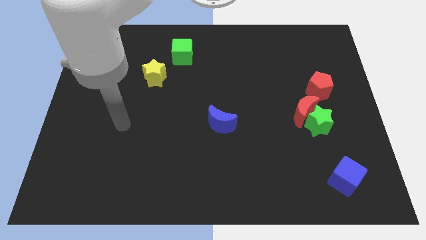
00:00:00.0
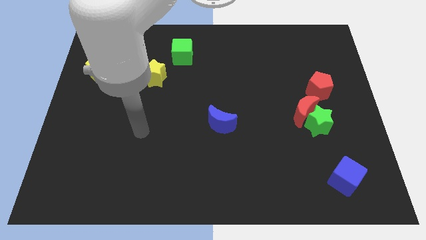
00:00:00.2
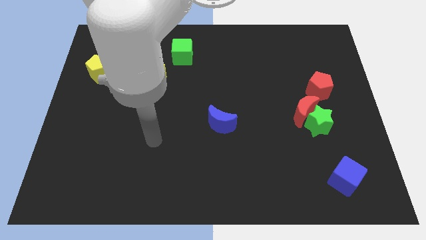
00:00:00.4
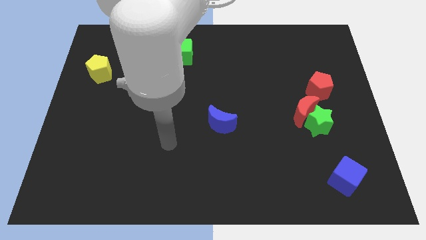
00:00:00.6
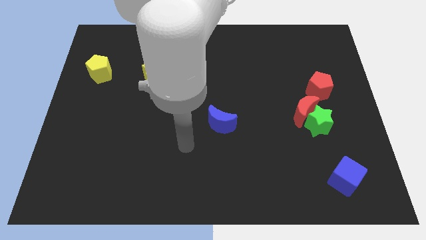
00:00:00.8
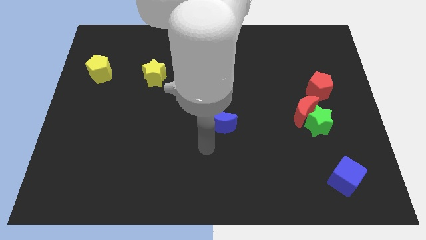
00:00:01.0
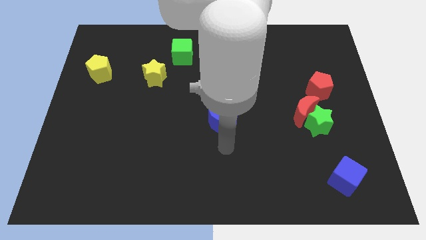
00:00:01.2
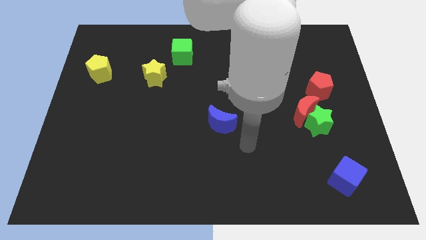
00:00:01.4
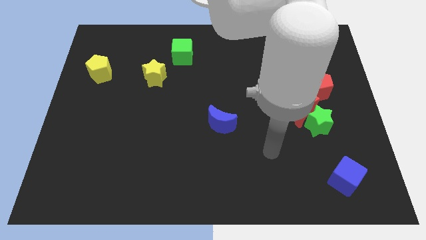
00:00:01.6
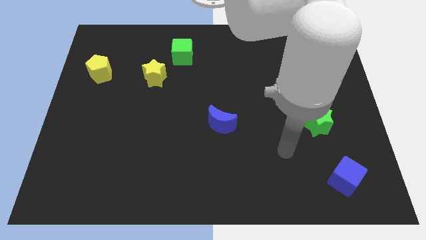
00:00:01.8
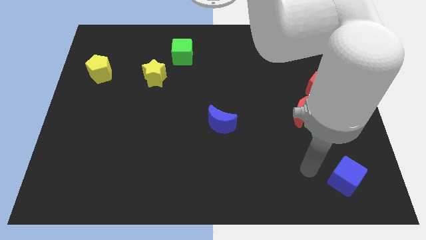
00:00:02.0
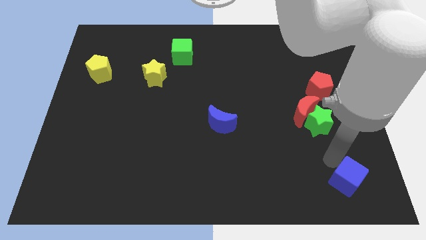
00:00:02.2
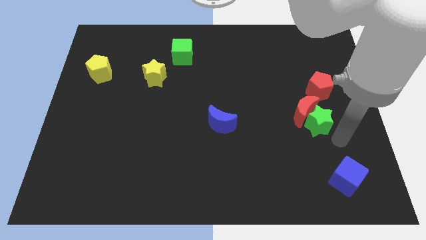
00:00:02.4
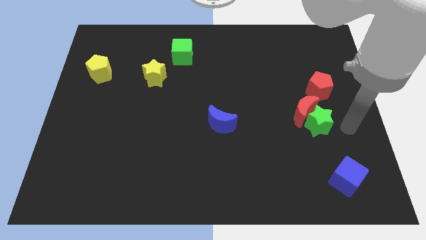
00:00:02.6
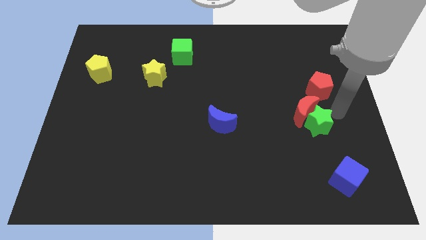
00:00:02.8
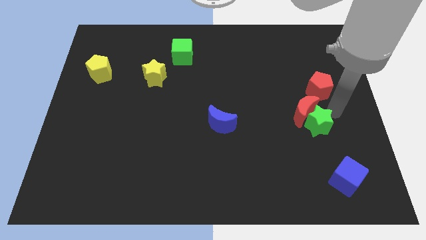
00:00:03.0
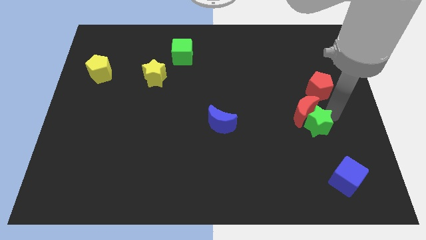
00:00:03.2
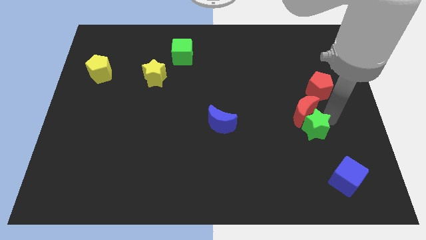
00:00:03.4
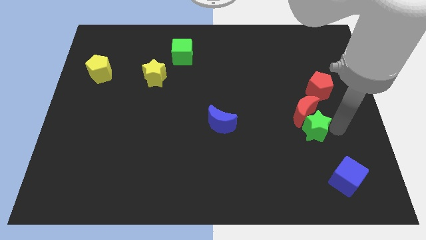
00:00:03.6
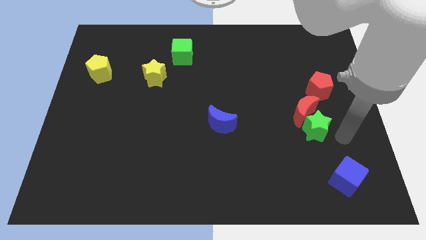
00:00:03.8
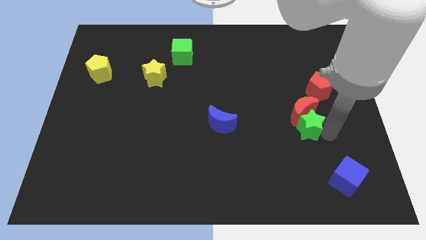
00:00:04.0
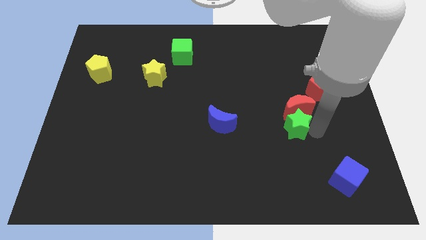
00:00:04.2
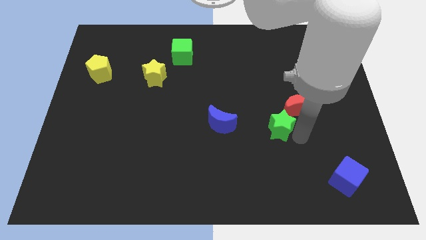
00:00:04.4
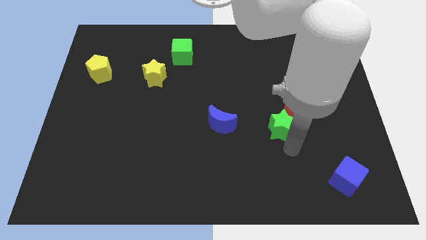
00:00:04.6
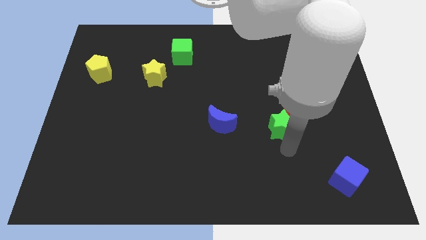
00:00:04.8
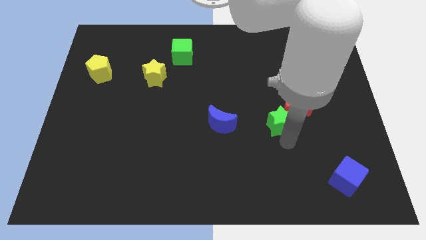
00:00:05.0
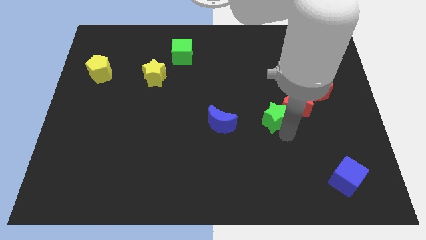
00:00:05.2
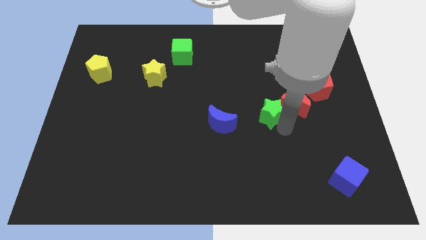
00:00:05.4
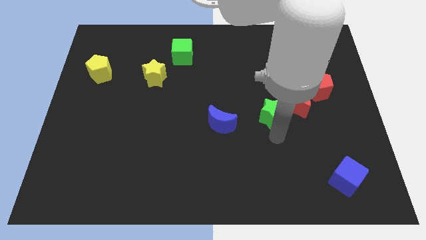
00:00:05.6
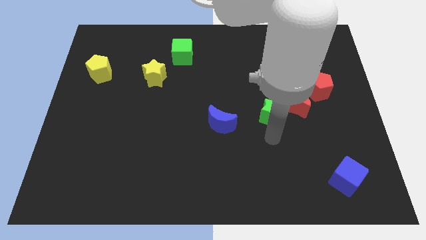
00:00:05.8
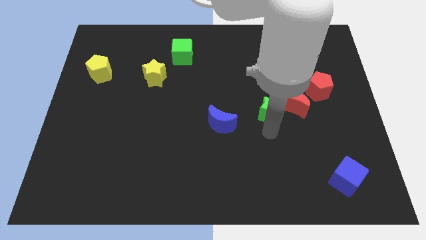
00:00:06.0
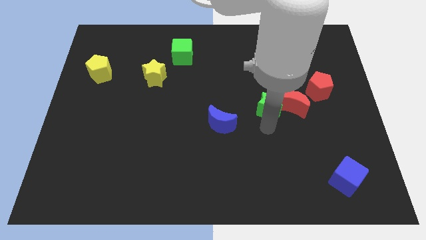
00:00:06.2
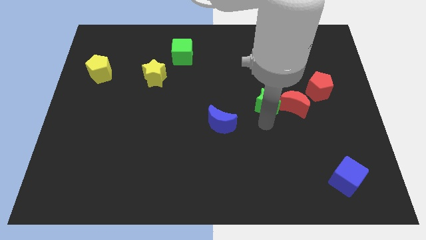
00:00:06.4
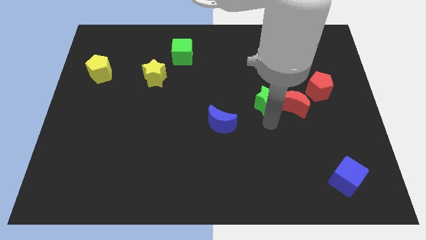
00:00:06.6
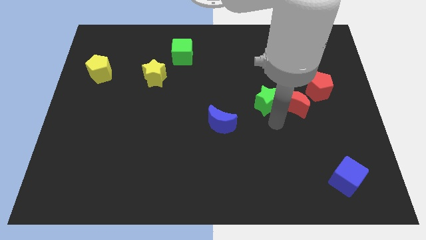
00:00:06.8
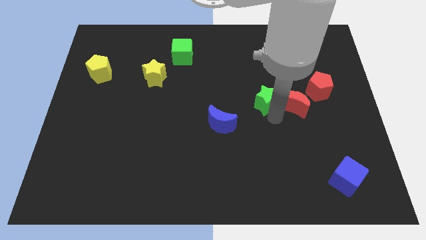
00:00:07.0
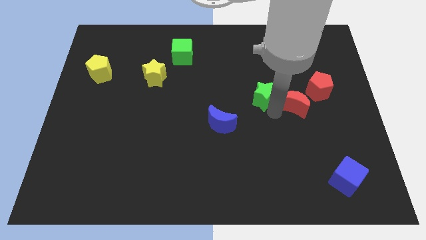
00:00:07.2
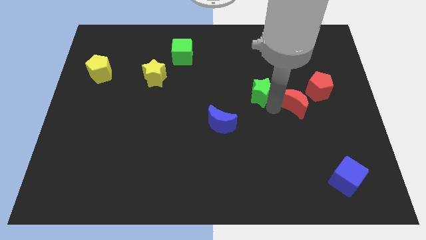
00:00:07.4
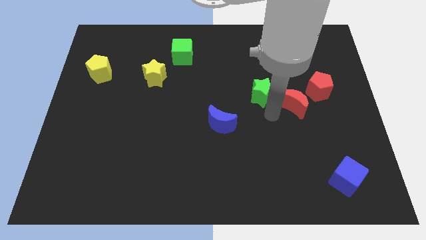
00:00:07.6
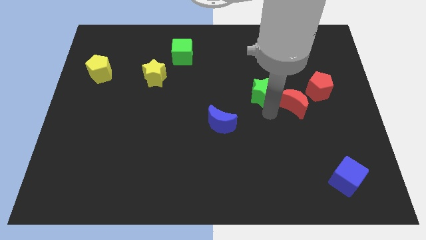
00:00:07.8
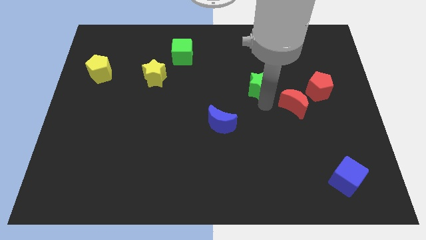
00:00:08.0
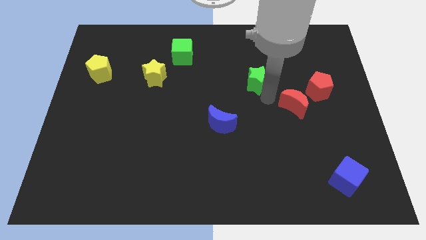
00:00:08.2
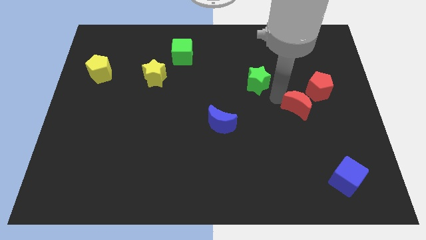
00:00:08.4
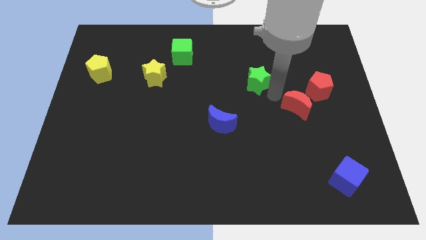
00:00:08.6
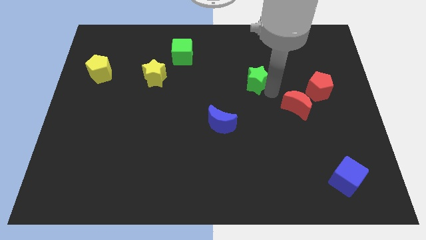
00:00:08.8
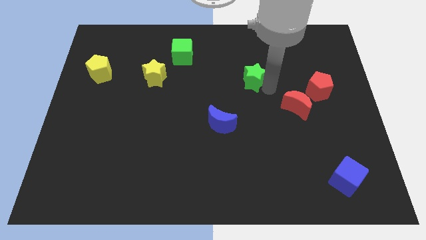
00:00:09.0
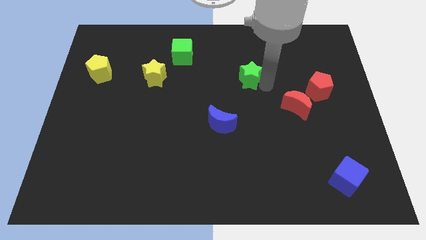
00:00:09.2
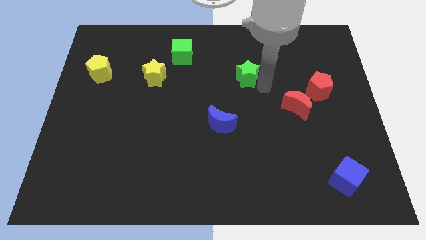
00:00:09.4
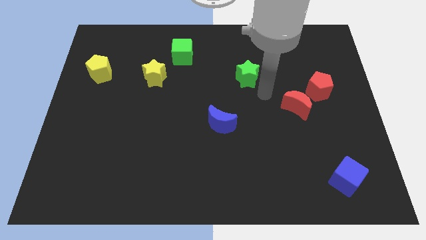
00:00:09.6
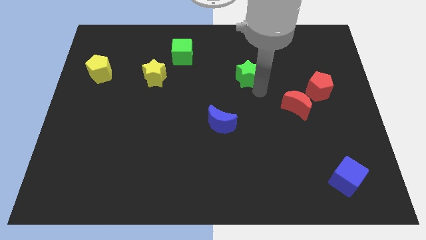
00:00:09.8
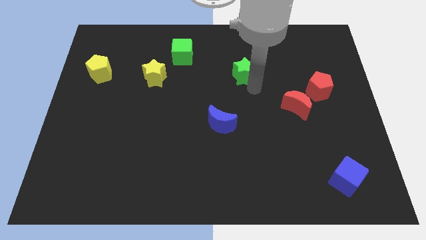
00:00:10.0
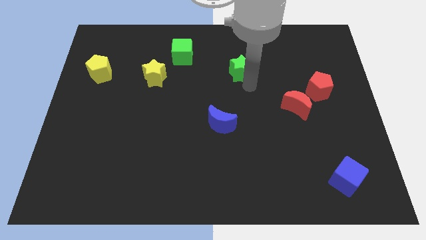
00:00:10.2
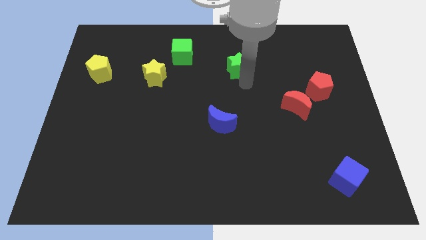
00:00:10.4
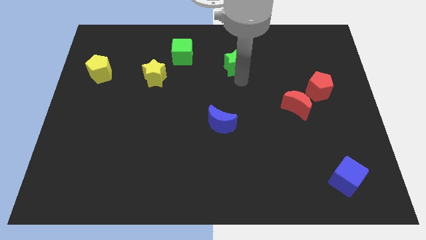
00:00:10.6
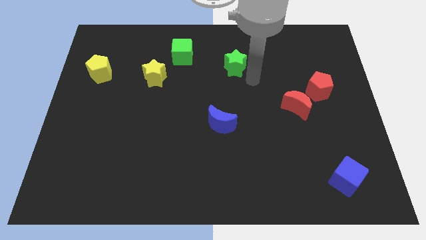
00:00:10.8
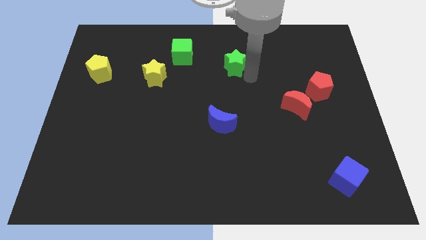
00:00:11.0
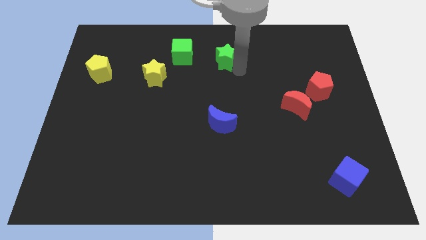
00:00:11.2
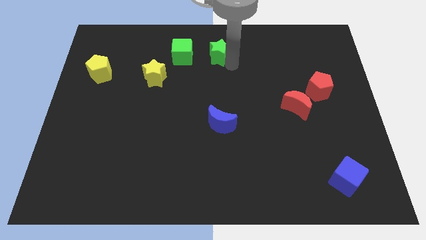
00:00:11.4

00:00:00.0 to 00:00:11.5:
push the green star to the top side

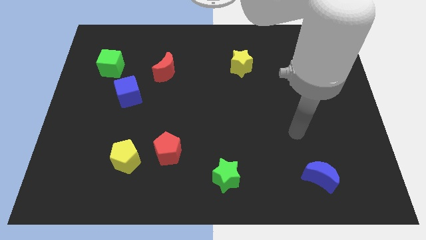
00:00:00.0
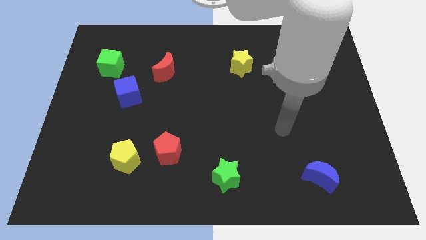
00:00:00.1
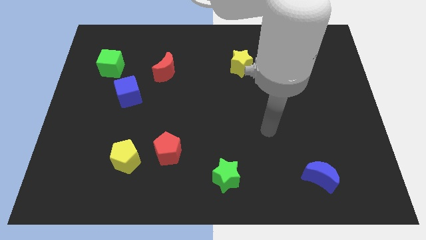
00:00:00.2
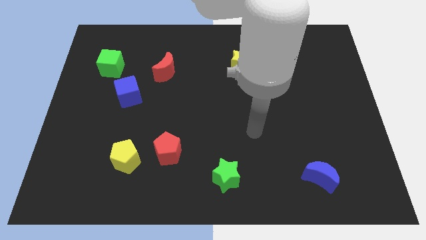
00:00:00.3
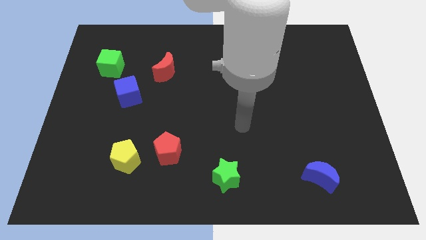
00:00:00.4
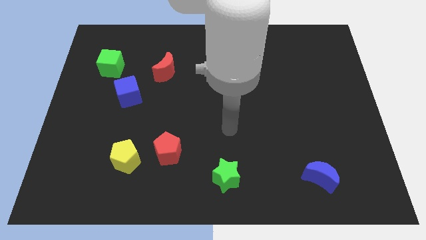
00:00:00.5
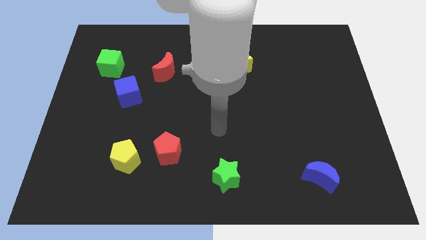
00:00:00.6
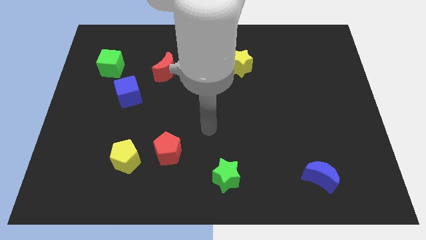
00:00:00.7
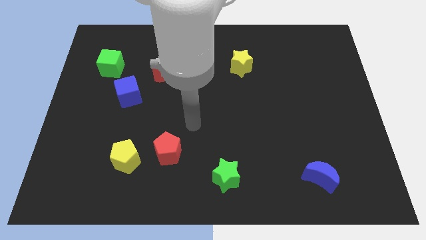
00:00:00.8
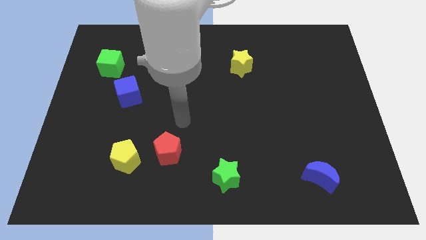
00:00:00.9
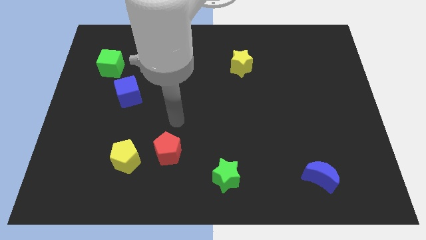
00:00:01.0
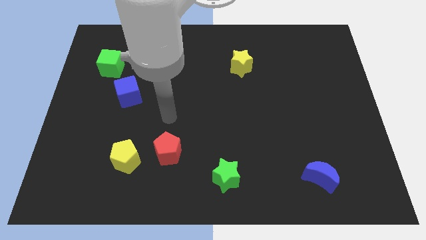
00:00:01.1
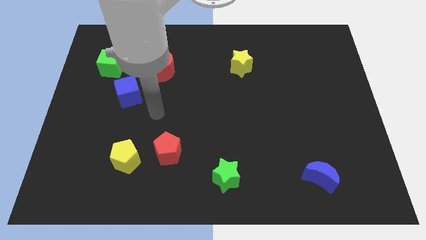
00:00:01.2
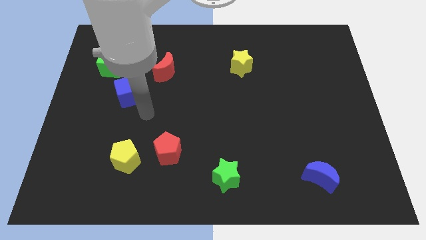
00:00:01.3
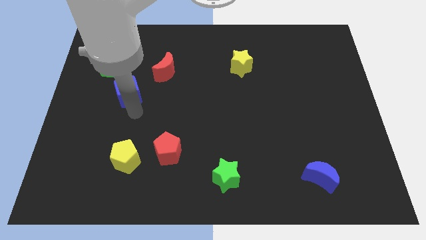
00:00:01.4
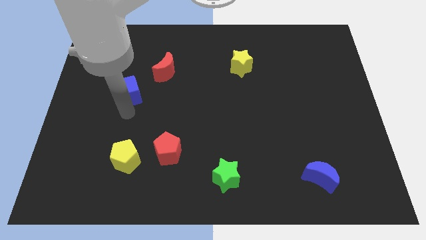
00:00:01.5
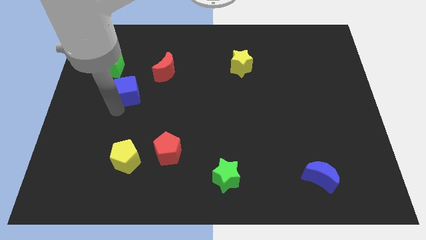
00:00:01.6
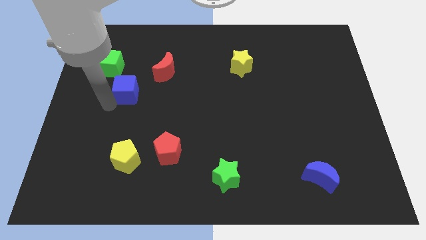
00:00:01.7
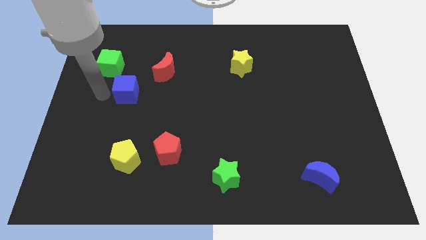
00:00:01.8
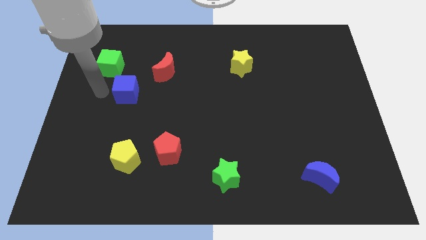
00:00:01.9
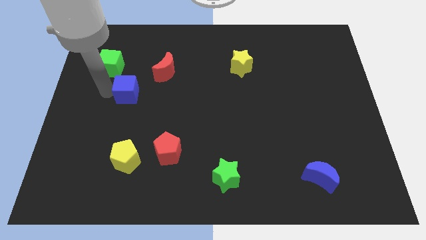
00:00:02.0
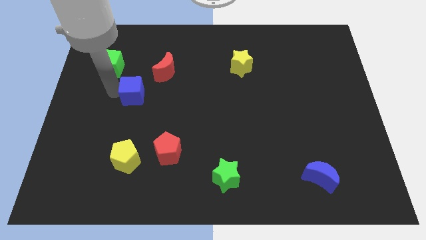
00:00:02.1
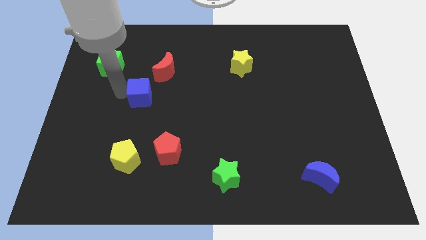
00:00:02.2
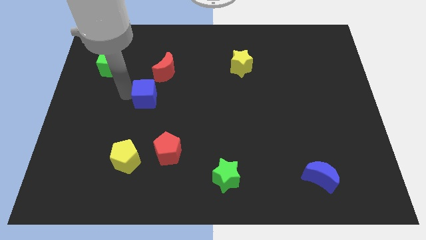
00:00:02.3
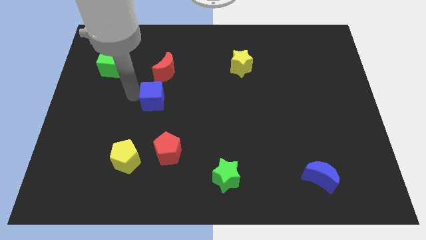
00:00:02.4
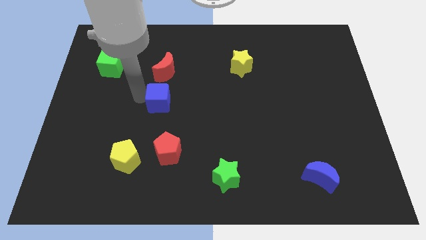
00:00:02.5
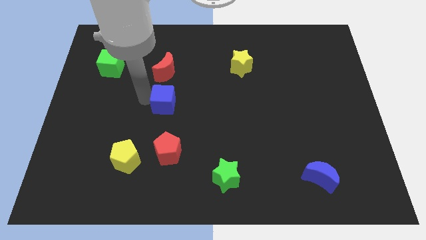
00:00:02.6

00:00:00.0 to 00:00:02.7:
slide the blue cube to the center of the board
